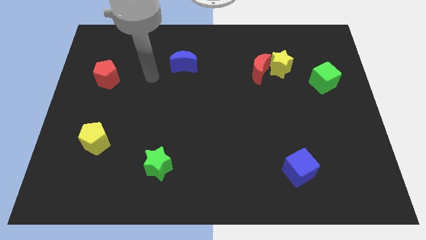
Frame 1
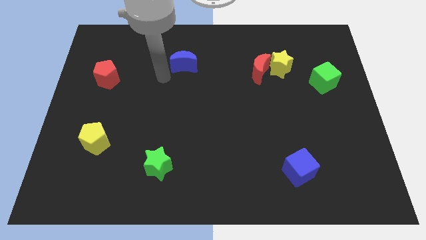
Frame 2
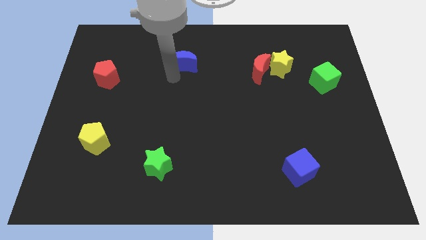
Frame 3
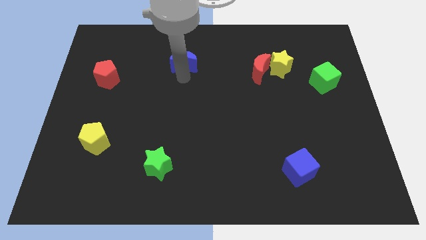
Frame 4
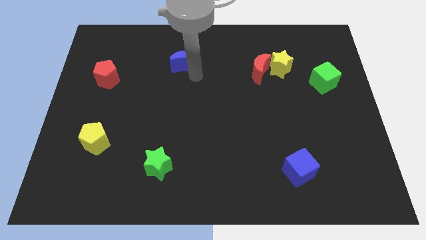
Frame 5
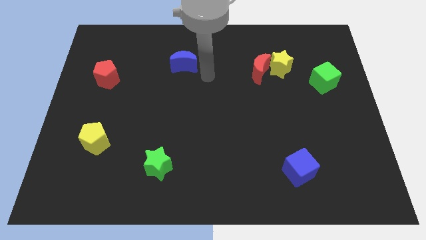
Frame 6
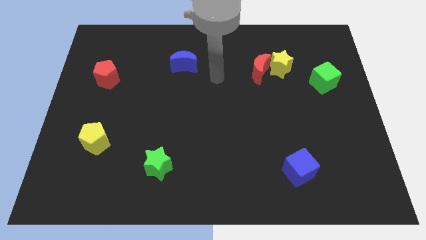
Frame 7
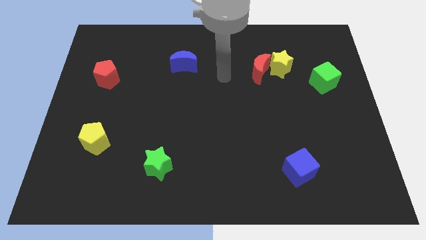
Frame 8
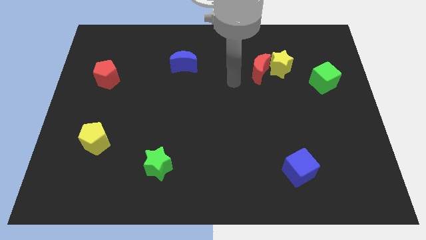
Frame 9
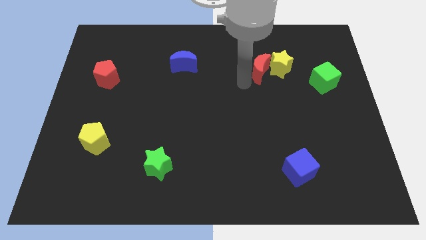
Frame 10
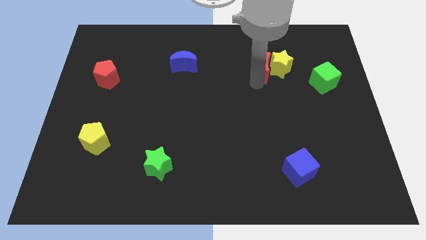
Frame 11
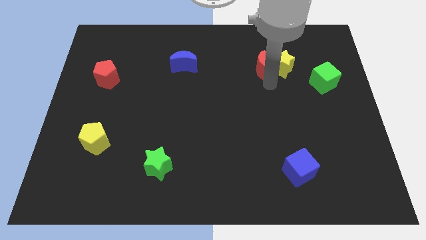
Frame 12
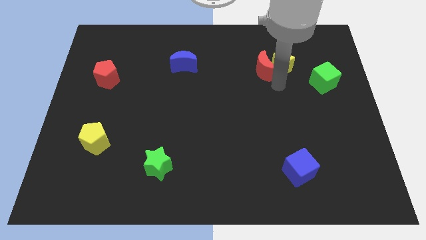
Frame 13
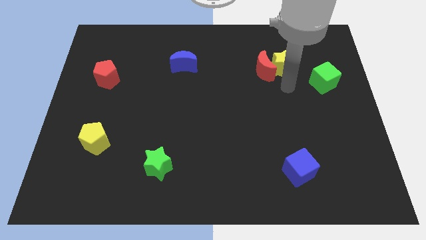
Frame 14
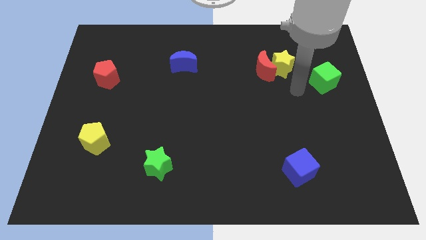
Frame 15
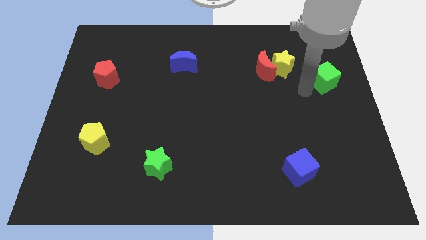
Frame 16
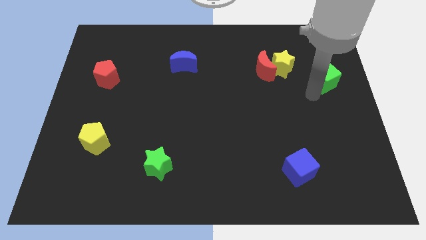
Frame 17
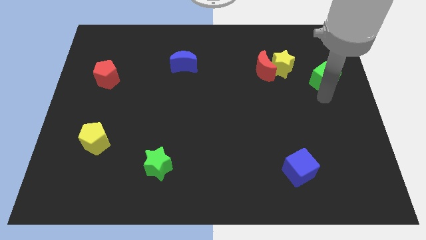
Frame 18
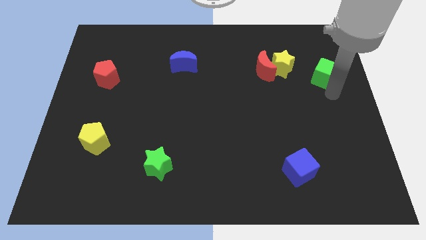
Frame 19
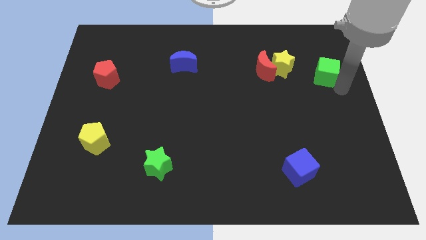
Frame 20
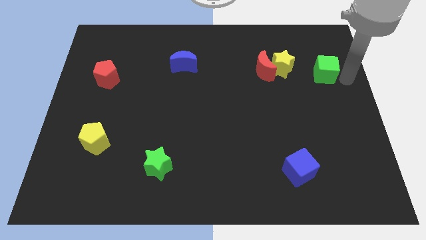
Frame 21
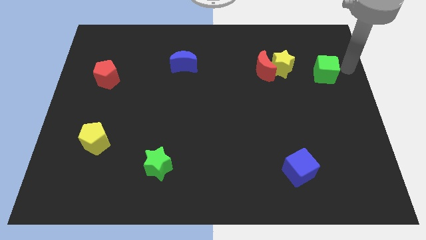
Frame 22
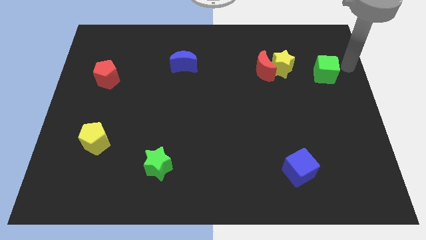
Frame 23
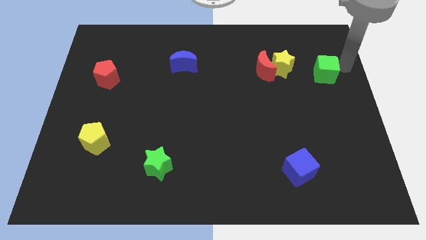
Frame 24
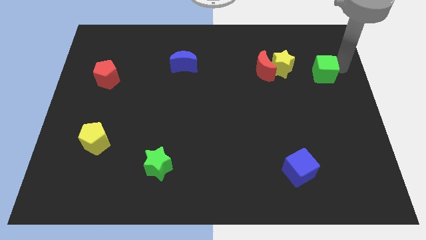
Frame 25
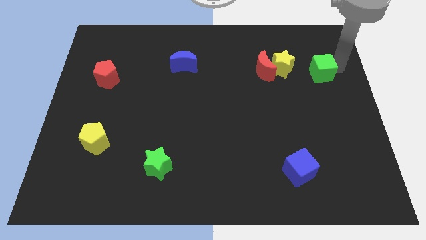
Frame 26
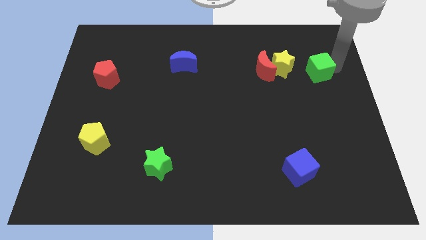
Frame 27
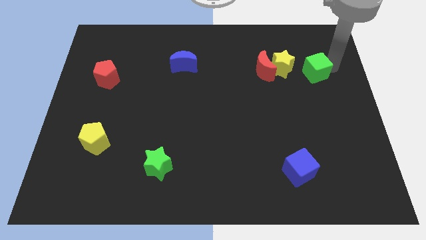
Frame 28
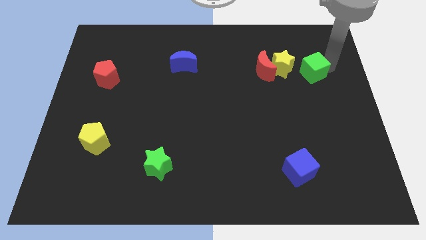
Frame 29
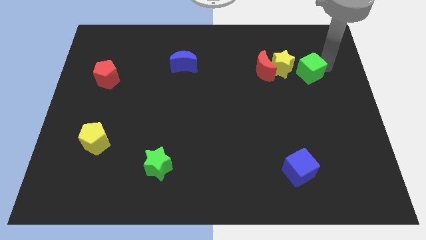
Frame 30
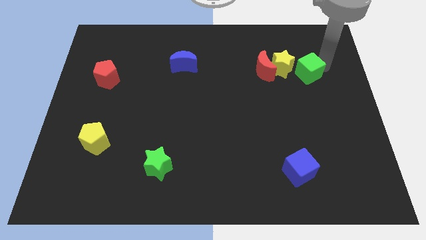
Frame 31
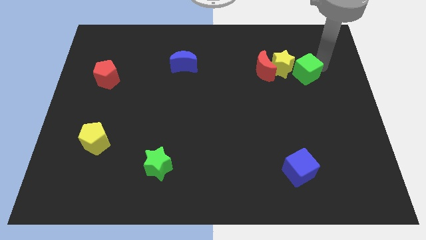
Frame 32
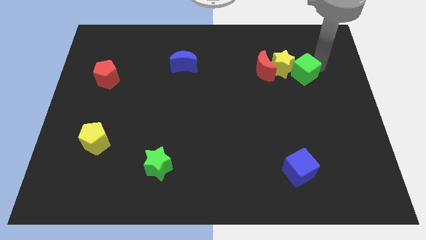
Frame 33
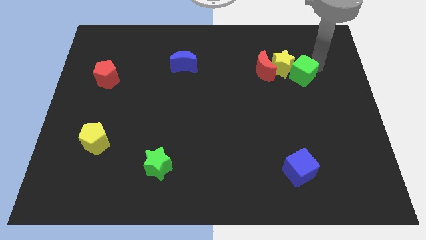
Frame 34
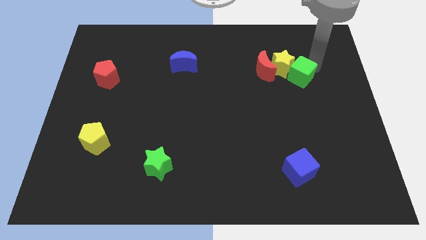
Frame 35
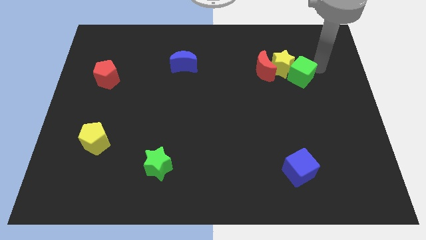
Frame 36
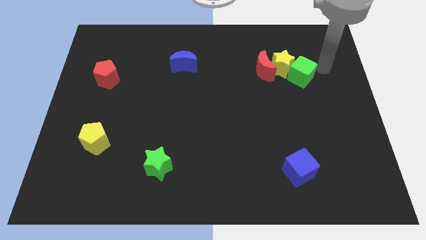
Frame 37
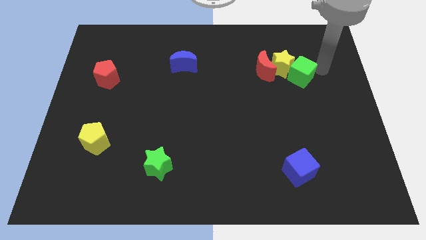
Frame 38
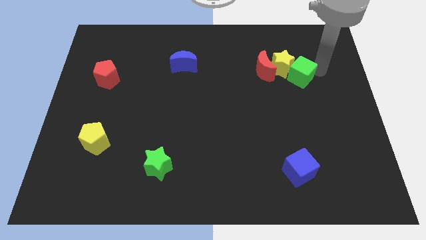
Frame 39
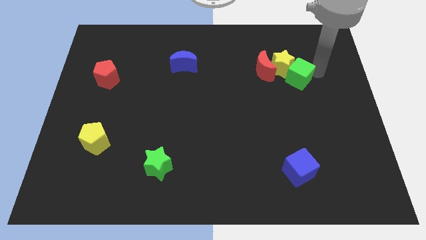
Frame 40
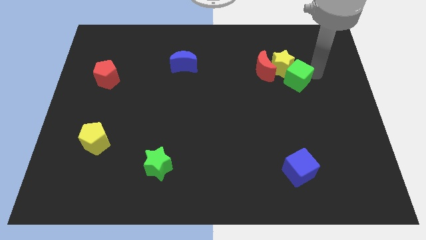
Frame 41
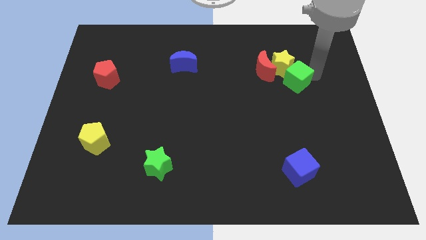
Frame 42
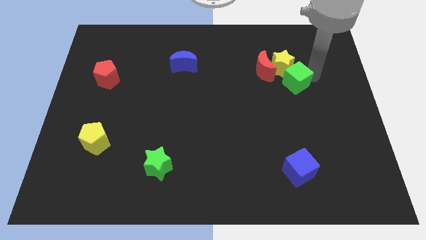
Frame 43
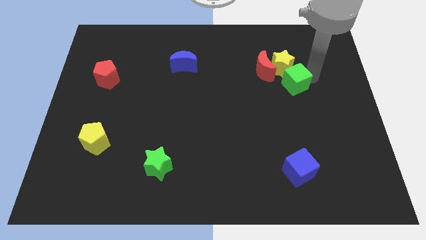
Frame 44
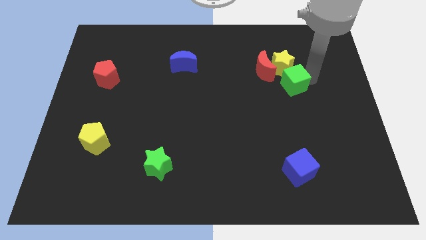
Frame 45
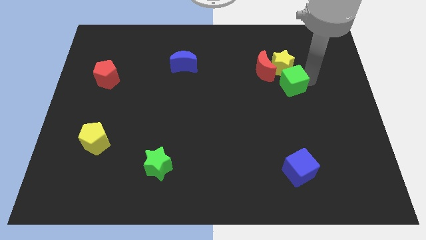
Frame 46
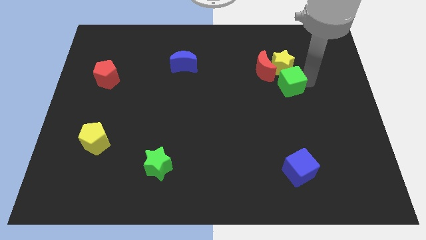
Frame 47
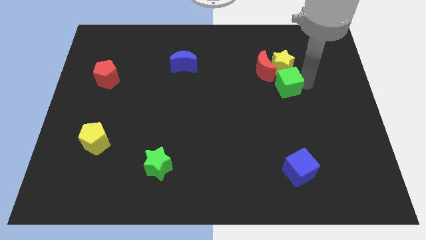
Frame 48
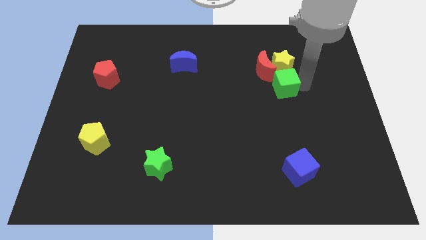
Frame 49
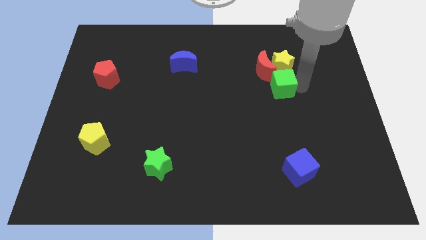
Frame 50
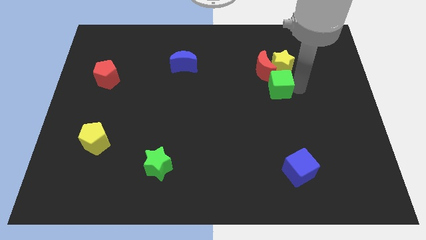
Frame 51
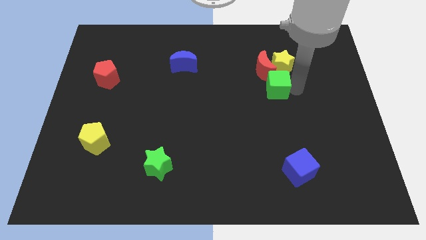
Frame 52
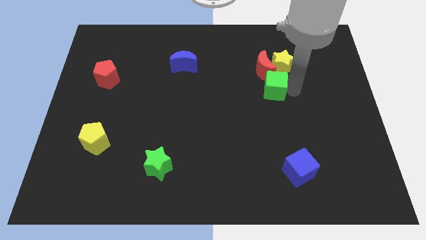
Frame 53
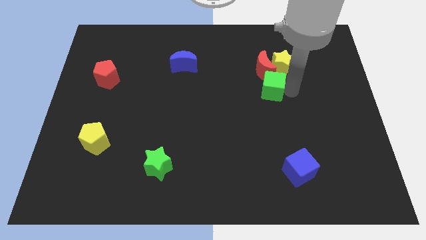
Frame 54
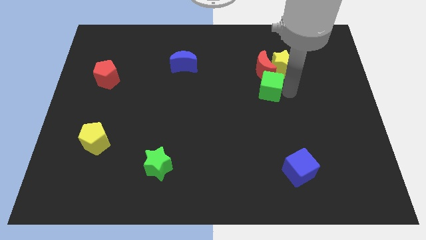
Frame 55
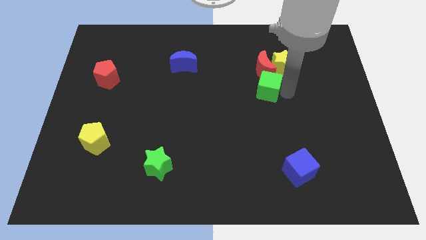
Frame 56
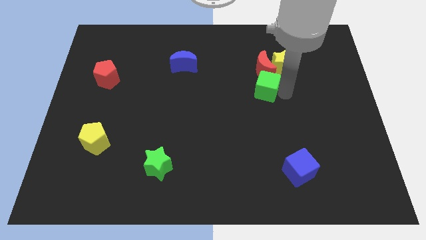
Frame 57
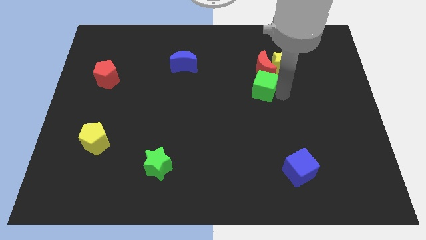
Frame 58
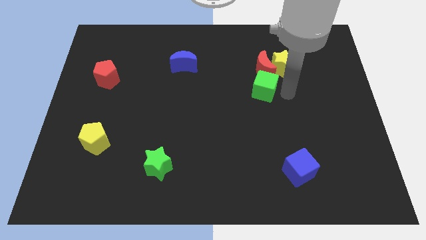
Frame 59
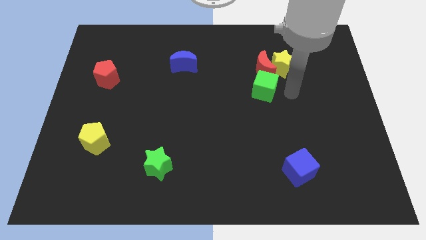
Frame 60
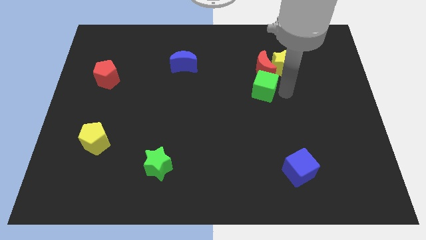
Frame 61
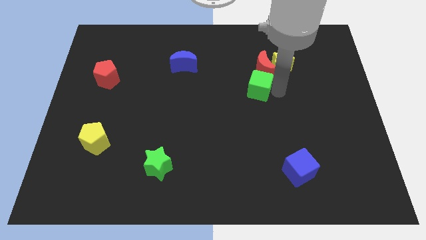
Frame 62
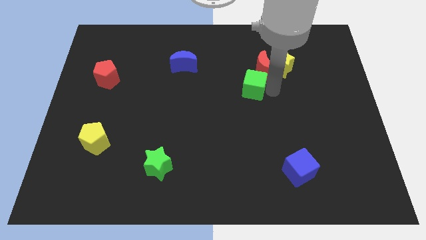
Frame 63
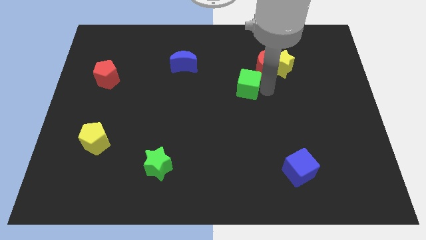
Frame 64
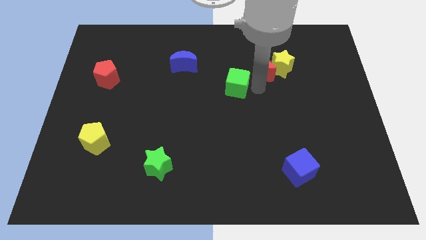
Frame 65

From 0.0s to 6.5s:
move the green cube left

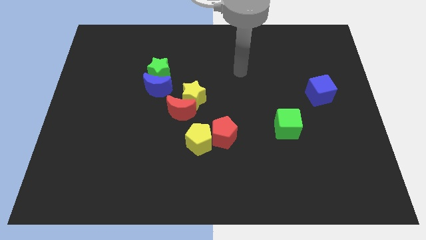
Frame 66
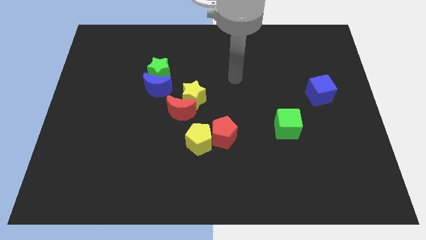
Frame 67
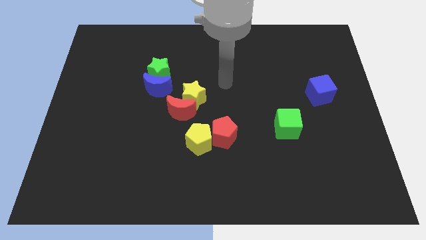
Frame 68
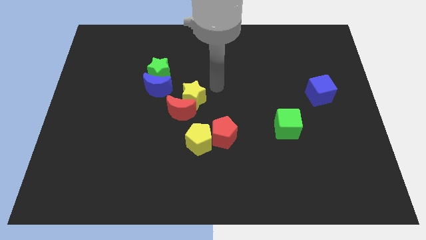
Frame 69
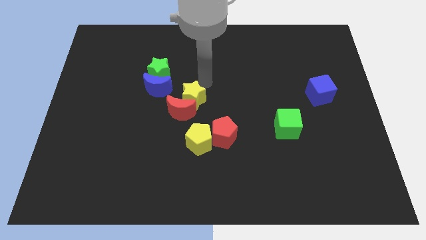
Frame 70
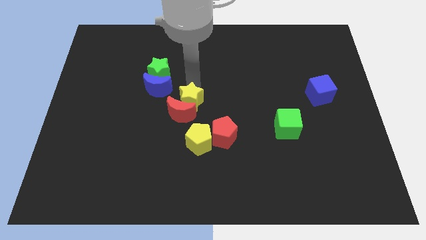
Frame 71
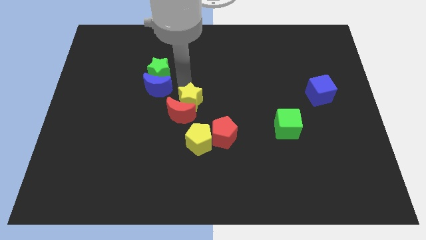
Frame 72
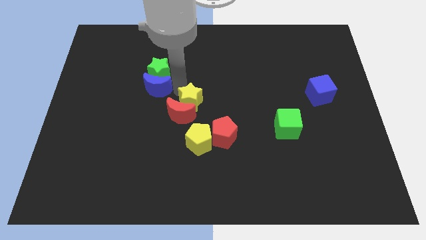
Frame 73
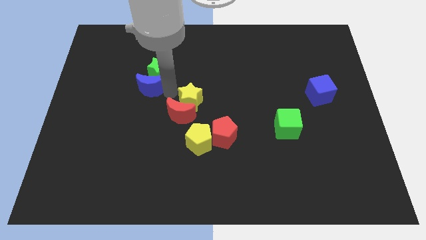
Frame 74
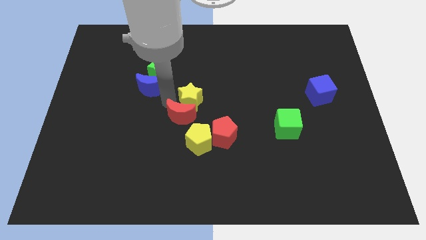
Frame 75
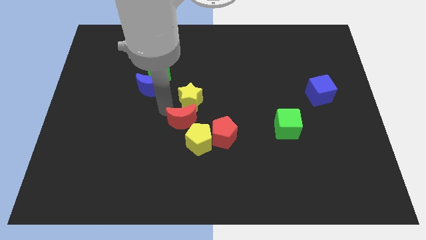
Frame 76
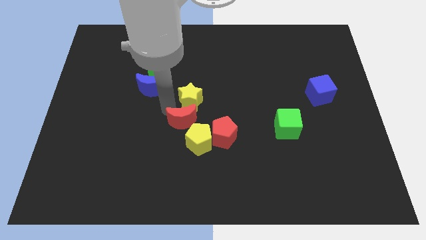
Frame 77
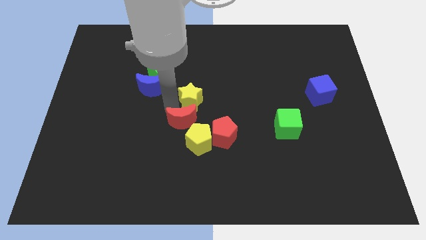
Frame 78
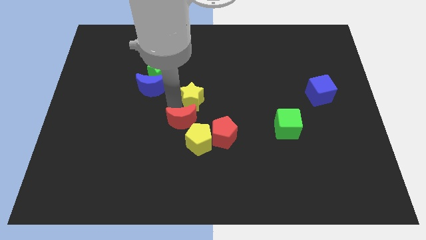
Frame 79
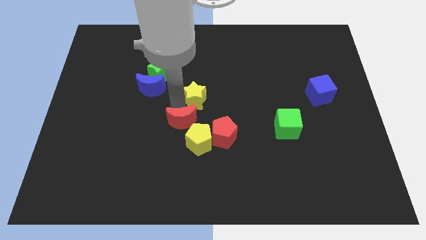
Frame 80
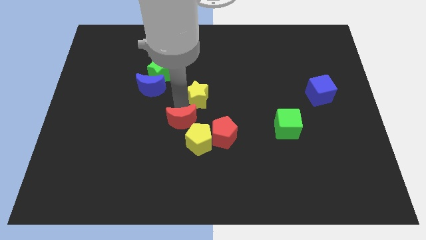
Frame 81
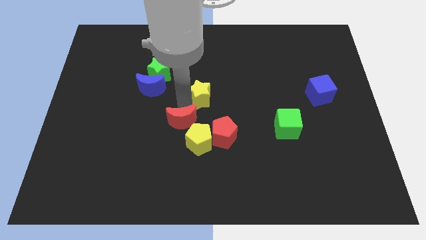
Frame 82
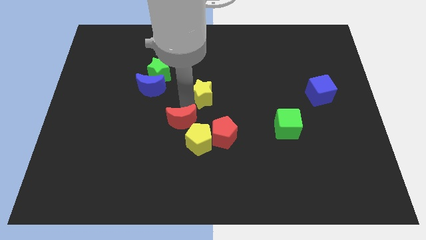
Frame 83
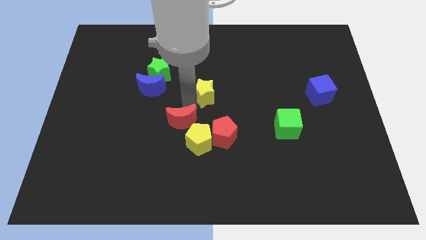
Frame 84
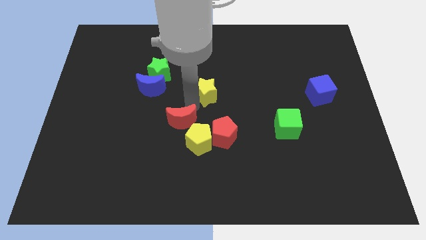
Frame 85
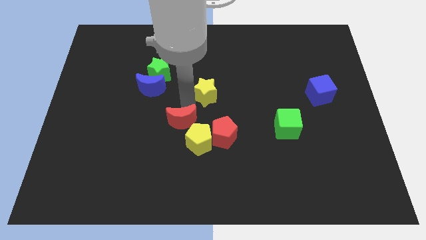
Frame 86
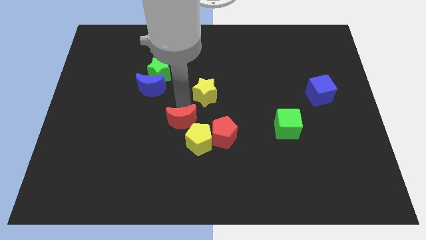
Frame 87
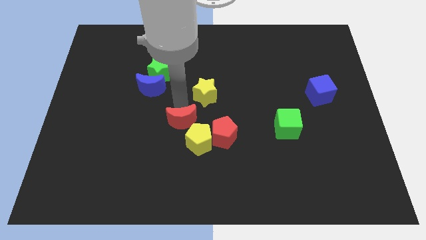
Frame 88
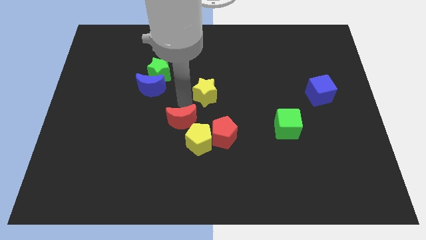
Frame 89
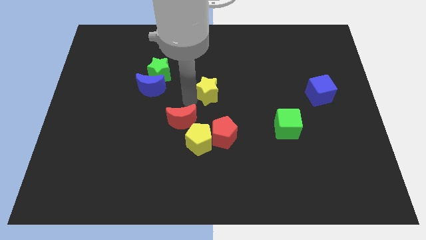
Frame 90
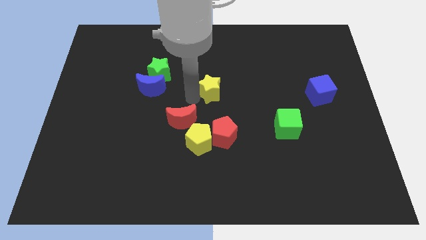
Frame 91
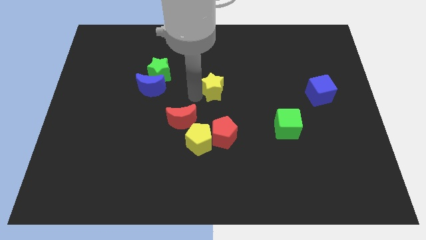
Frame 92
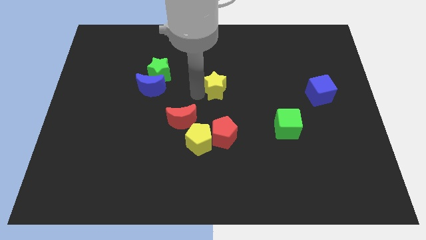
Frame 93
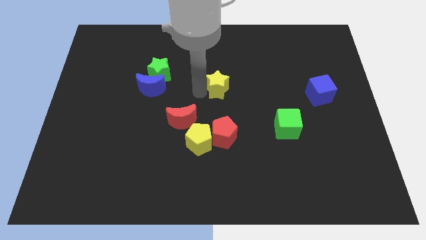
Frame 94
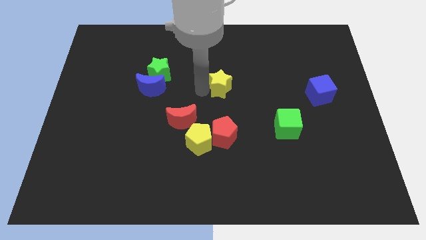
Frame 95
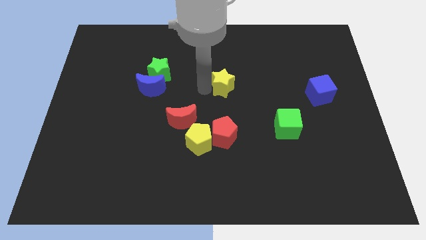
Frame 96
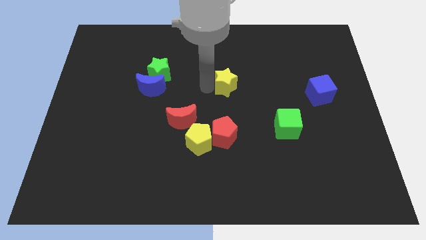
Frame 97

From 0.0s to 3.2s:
push the yellow star a little bit to the right
